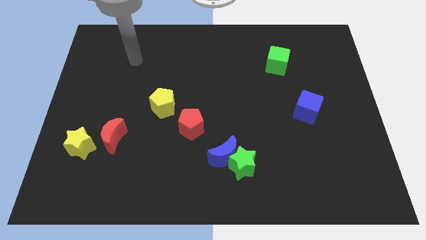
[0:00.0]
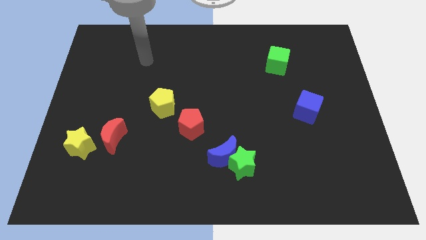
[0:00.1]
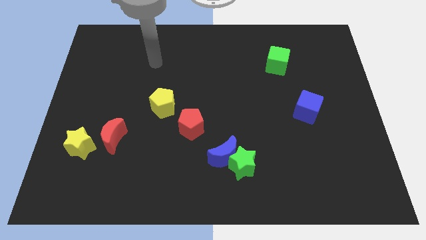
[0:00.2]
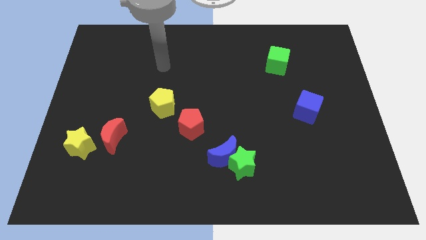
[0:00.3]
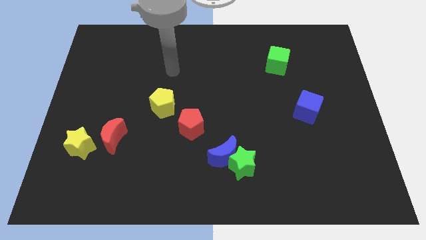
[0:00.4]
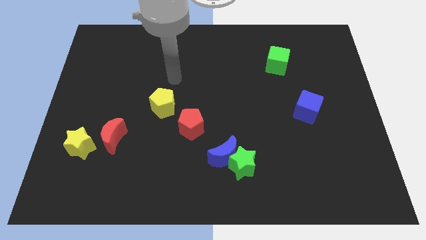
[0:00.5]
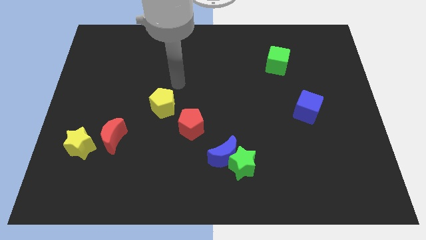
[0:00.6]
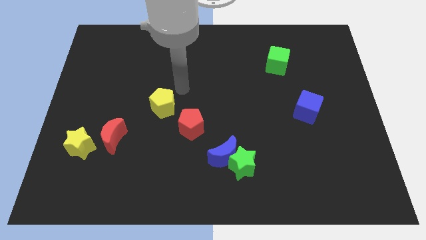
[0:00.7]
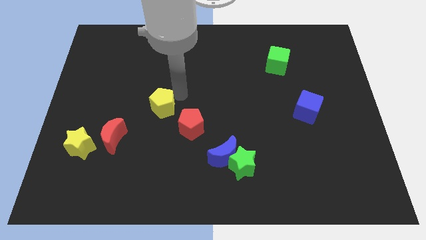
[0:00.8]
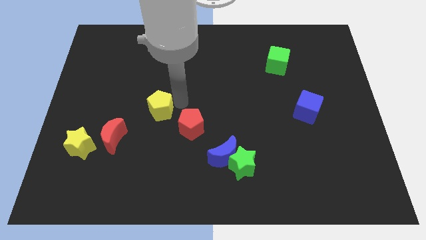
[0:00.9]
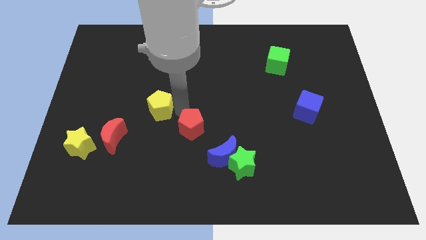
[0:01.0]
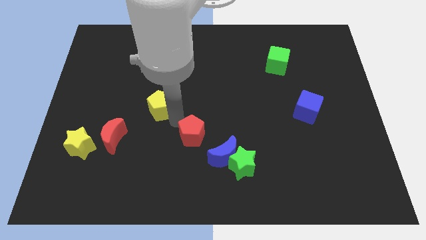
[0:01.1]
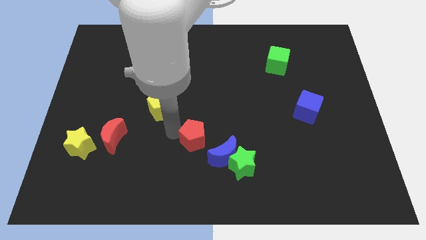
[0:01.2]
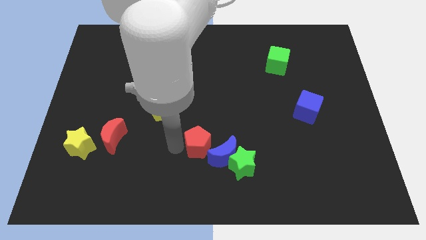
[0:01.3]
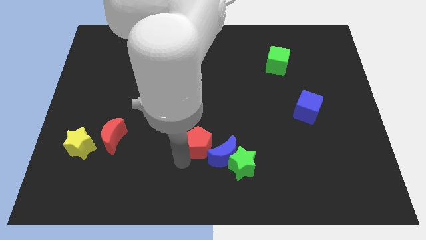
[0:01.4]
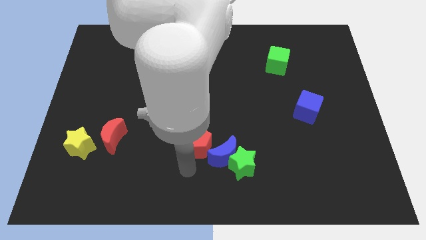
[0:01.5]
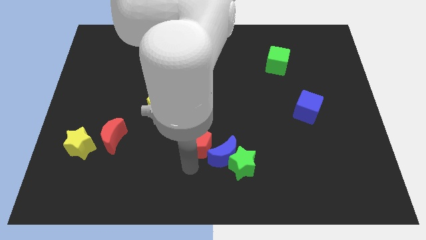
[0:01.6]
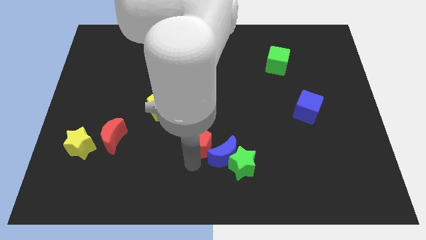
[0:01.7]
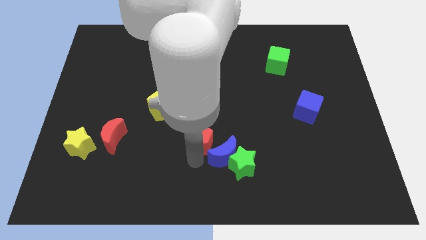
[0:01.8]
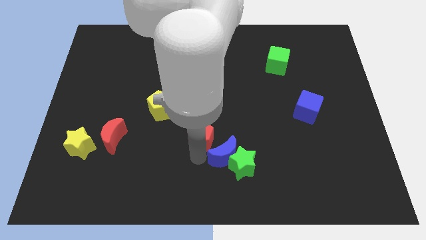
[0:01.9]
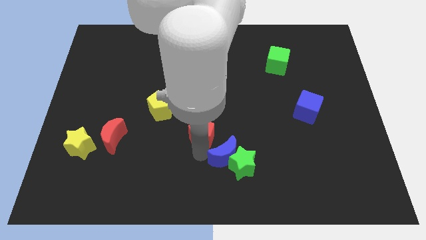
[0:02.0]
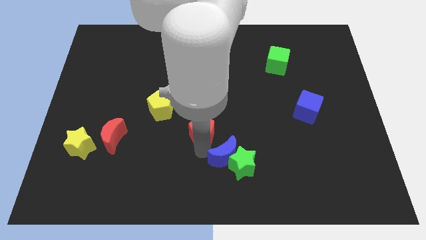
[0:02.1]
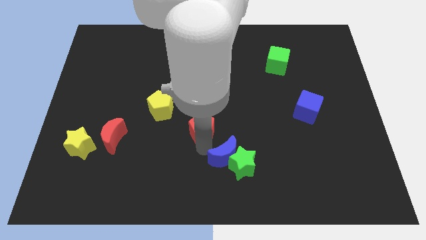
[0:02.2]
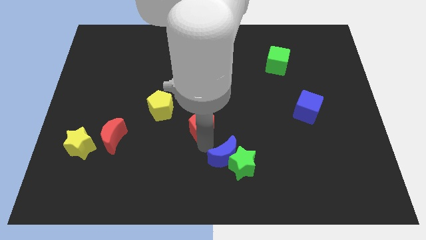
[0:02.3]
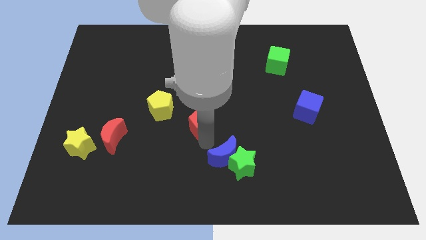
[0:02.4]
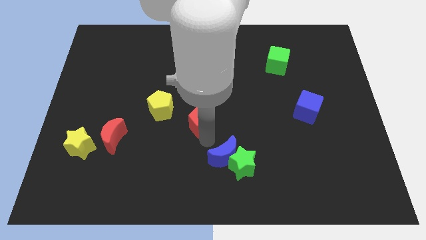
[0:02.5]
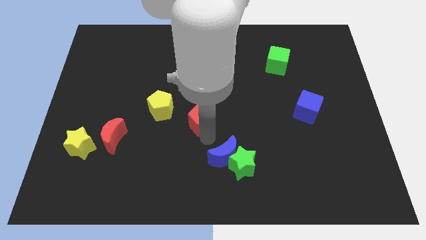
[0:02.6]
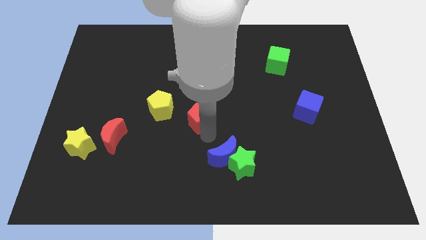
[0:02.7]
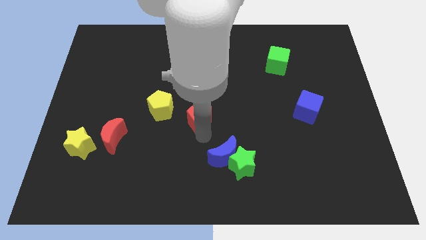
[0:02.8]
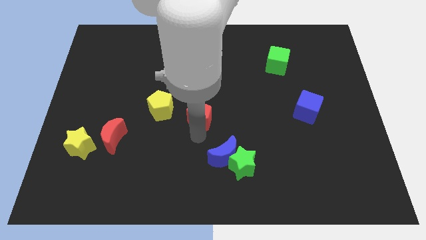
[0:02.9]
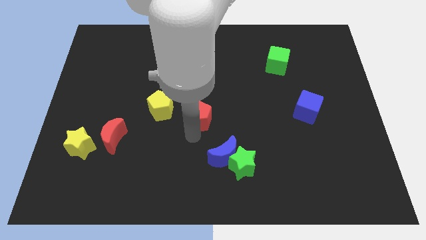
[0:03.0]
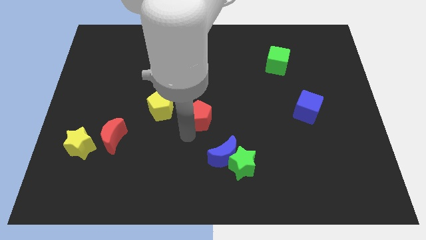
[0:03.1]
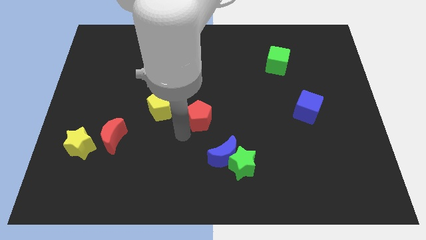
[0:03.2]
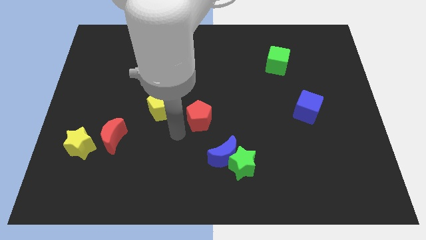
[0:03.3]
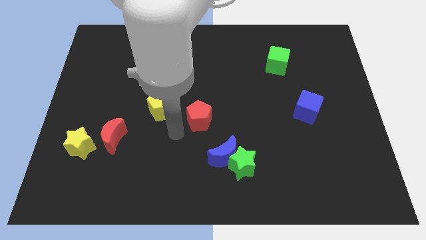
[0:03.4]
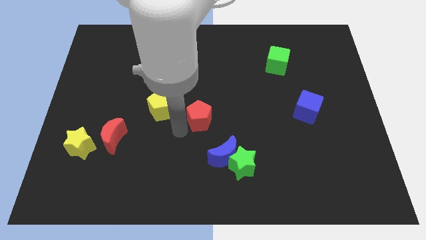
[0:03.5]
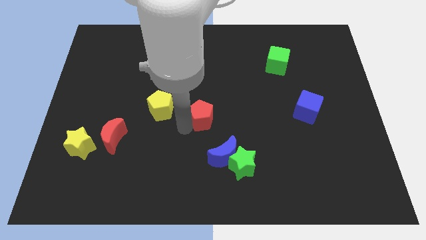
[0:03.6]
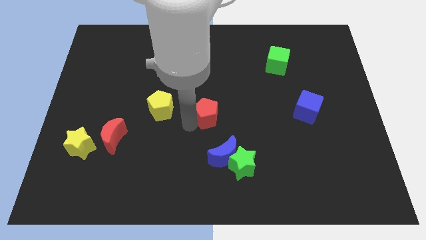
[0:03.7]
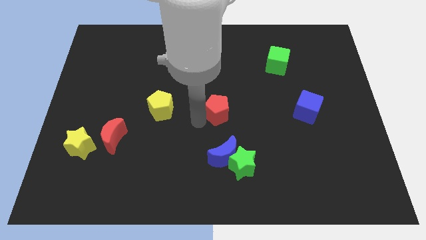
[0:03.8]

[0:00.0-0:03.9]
move the red pentagon upwards and then right slightly

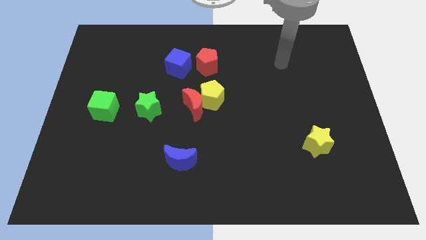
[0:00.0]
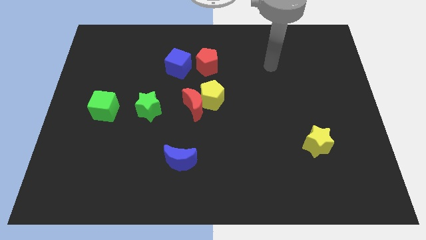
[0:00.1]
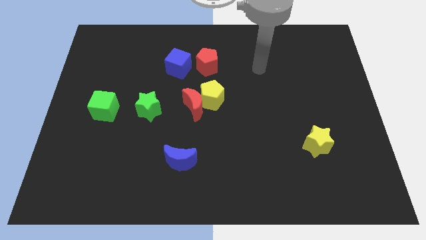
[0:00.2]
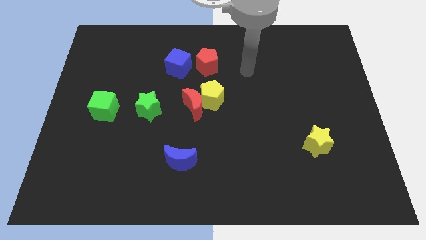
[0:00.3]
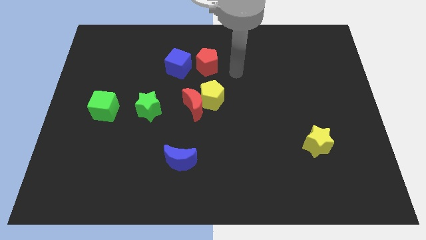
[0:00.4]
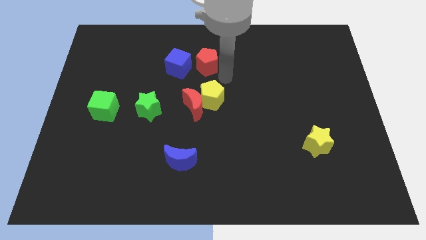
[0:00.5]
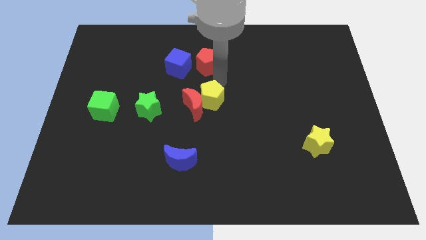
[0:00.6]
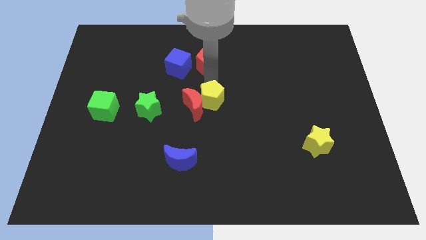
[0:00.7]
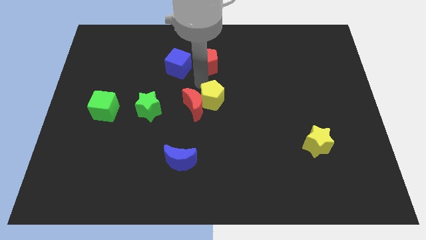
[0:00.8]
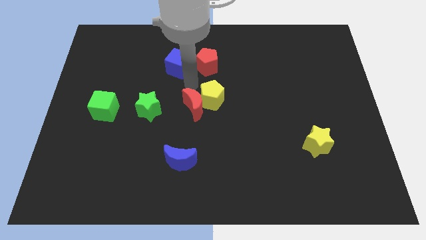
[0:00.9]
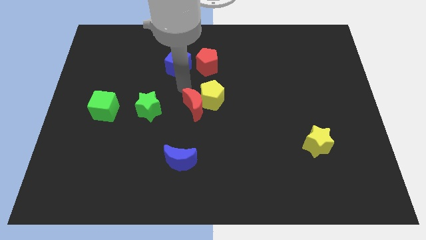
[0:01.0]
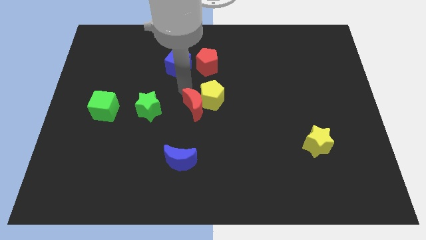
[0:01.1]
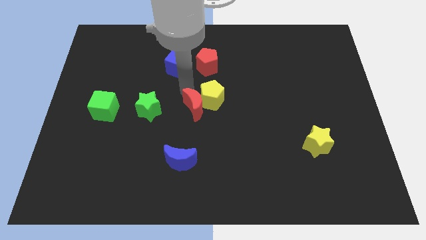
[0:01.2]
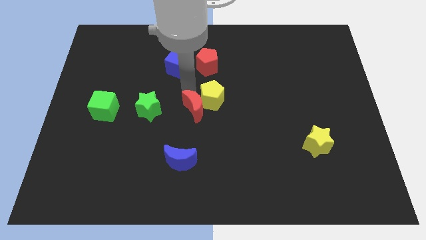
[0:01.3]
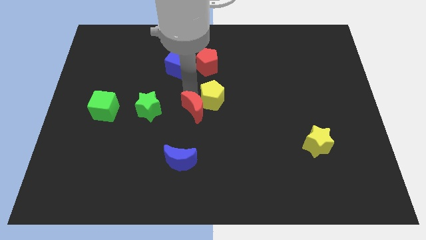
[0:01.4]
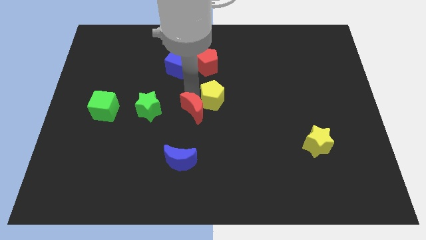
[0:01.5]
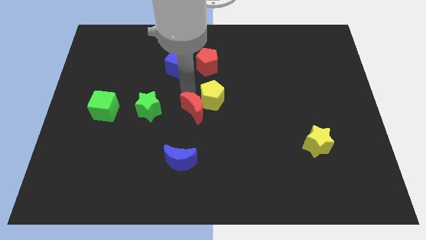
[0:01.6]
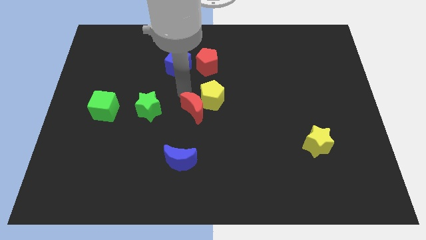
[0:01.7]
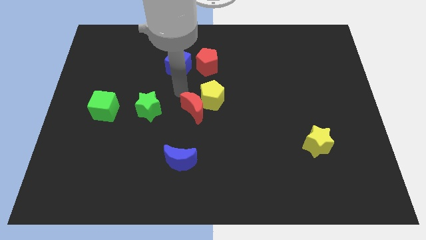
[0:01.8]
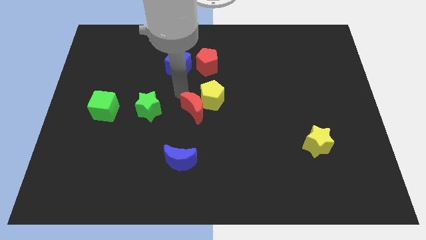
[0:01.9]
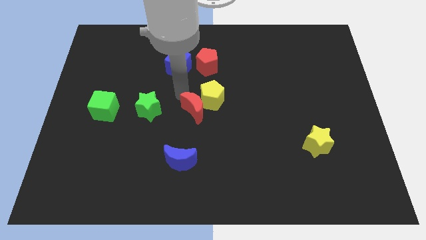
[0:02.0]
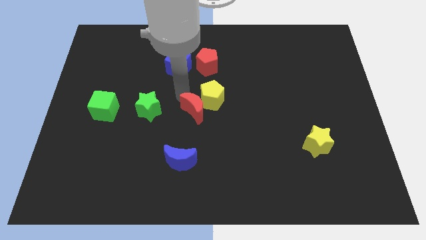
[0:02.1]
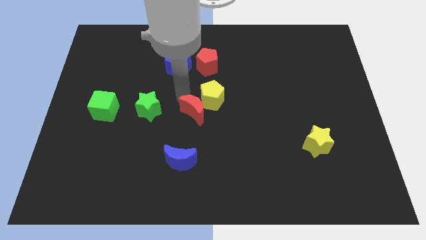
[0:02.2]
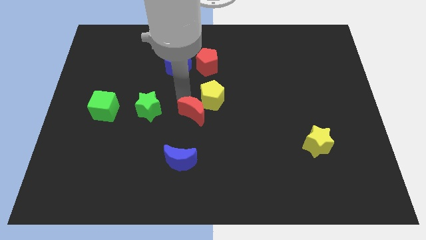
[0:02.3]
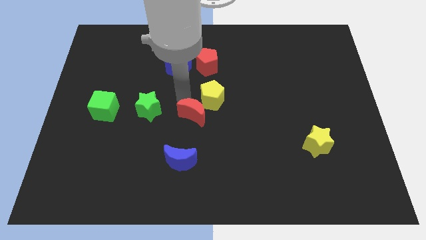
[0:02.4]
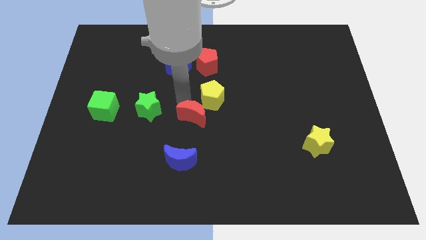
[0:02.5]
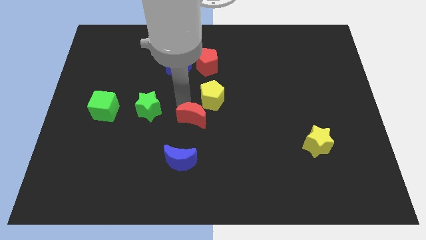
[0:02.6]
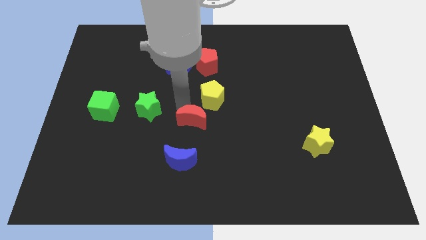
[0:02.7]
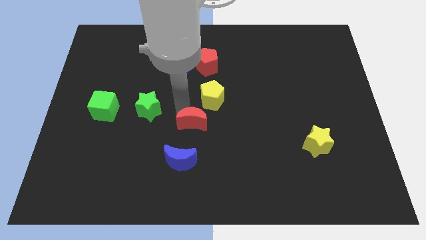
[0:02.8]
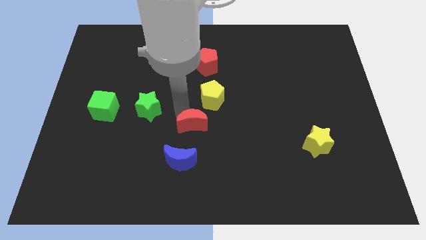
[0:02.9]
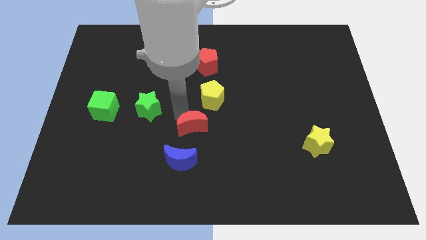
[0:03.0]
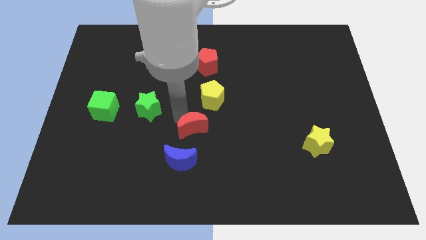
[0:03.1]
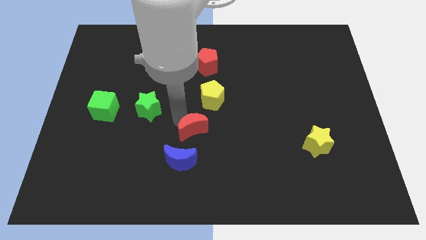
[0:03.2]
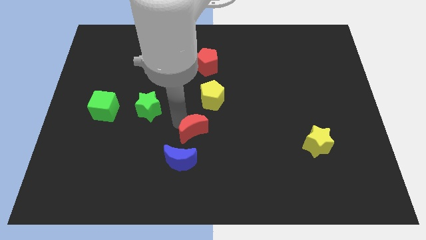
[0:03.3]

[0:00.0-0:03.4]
slightly slide the red moon down

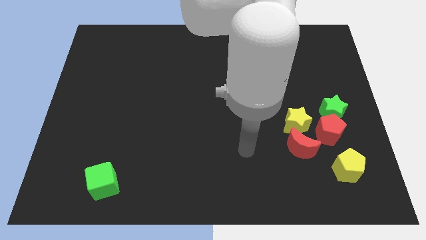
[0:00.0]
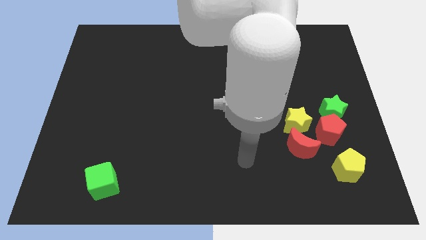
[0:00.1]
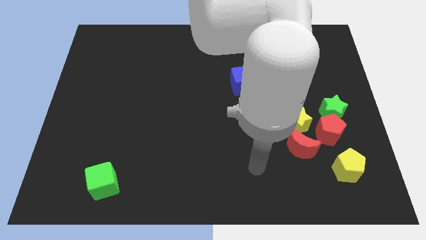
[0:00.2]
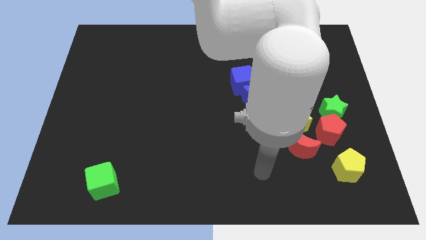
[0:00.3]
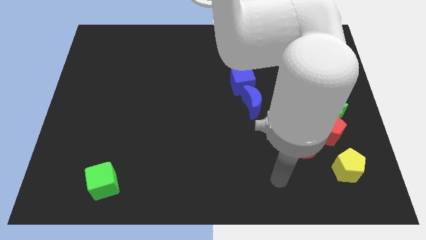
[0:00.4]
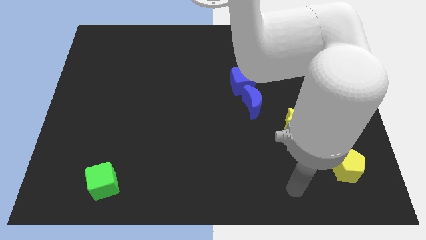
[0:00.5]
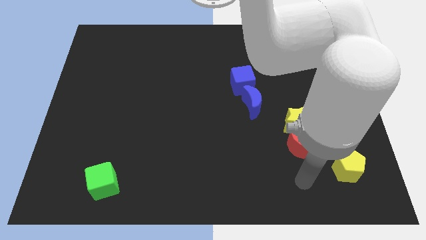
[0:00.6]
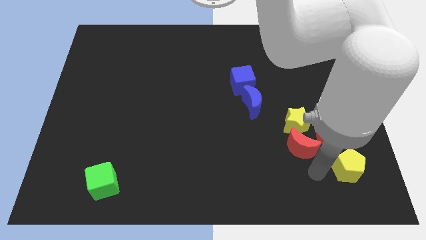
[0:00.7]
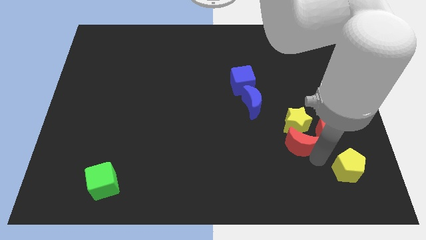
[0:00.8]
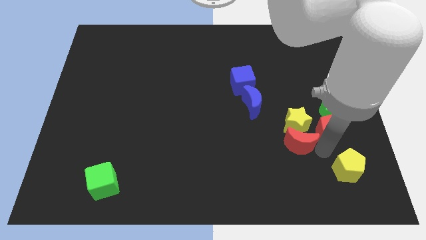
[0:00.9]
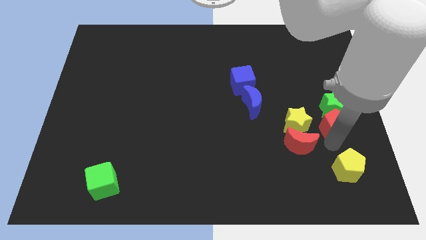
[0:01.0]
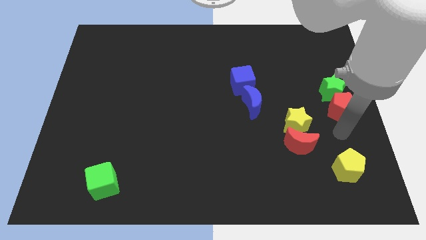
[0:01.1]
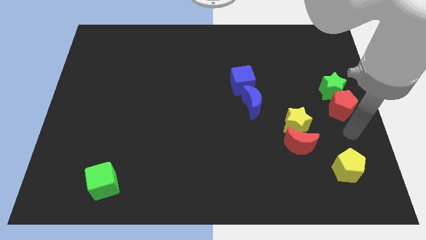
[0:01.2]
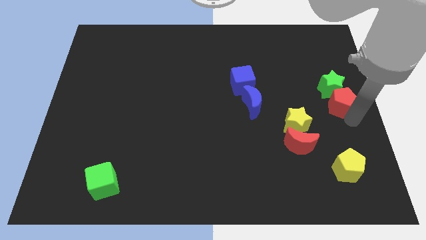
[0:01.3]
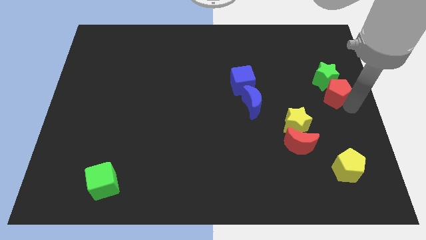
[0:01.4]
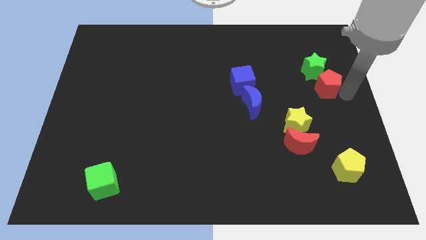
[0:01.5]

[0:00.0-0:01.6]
push the green star somewhat up and to the left diagonally
